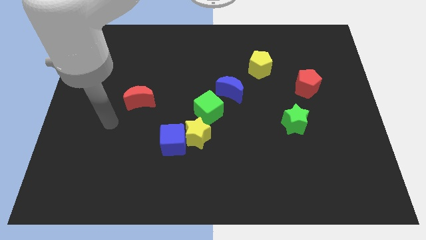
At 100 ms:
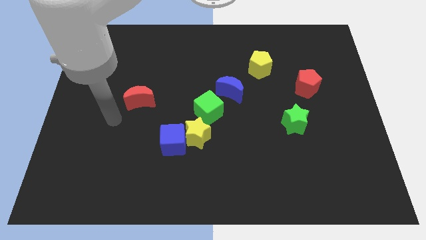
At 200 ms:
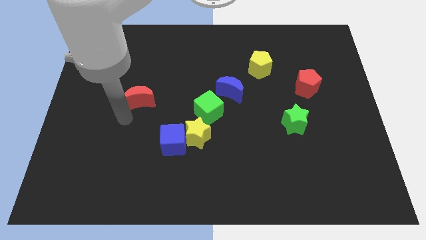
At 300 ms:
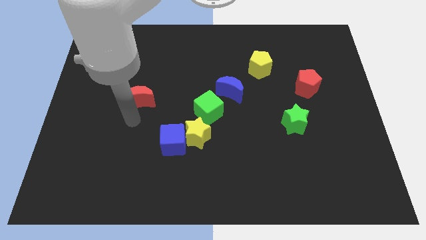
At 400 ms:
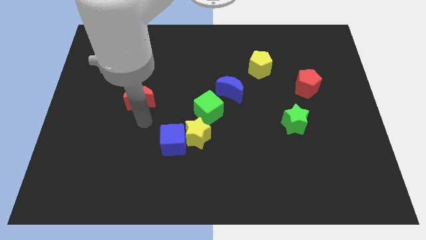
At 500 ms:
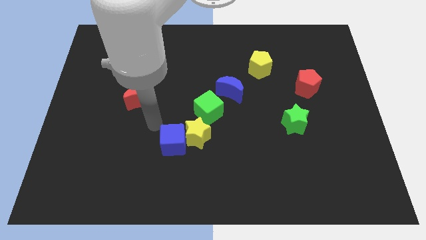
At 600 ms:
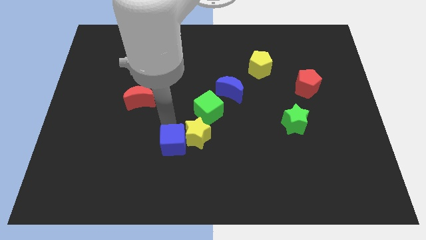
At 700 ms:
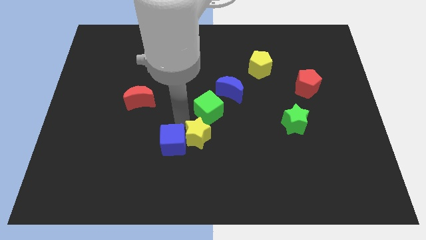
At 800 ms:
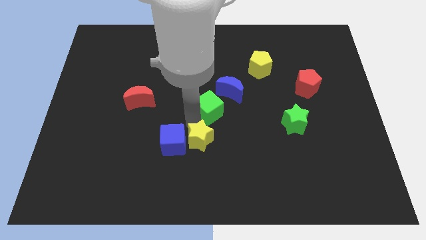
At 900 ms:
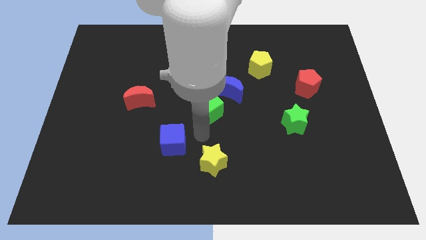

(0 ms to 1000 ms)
move the blue cube away from the yellow star

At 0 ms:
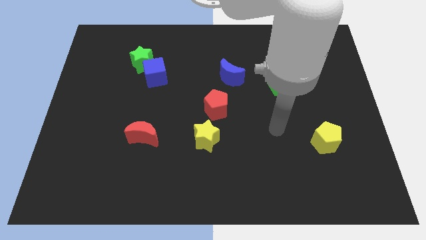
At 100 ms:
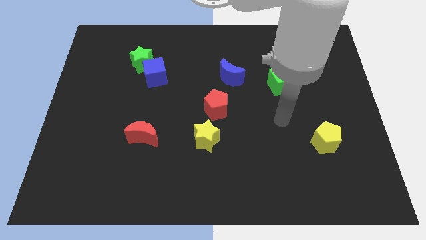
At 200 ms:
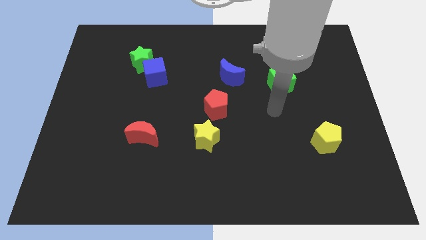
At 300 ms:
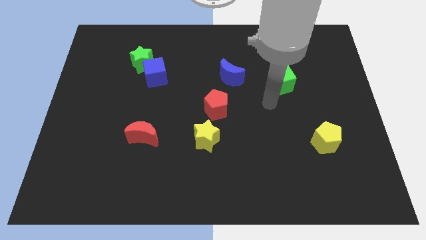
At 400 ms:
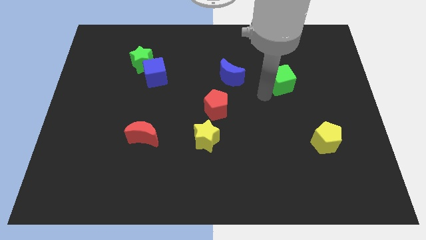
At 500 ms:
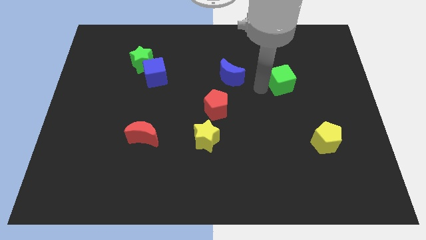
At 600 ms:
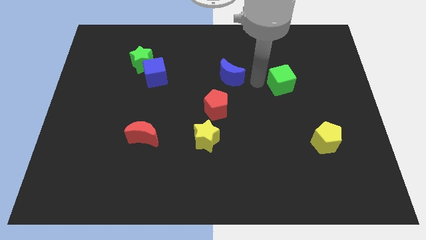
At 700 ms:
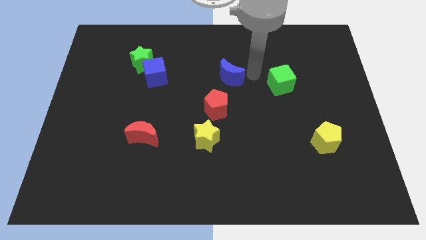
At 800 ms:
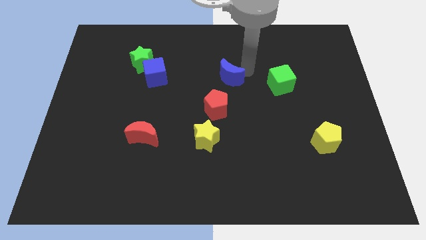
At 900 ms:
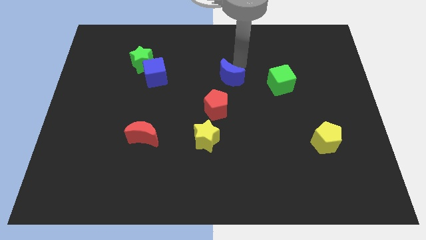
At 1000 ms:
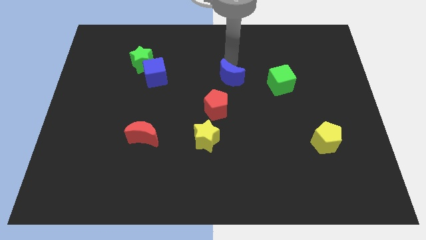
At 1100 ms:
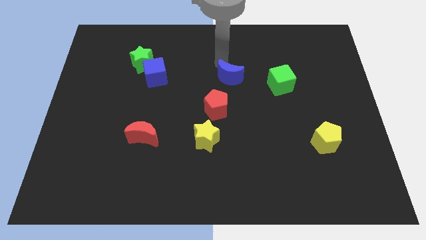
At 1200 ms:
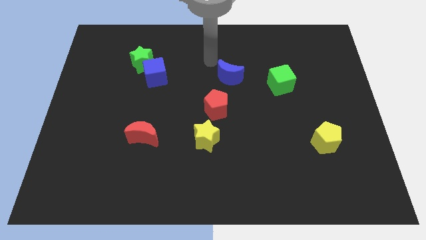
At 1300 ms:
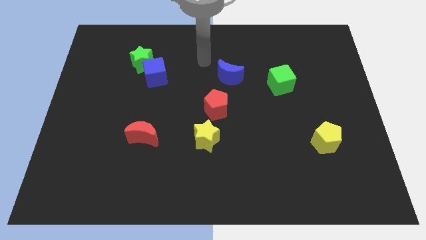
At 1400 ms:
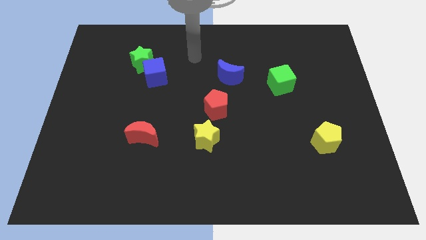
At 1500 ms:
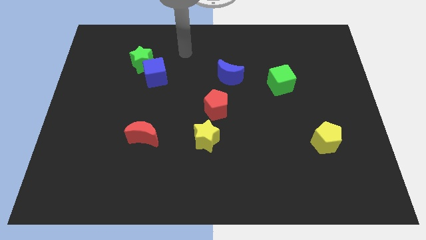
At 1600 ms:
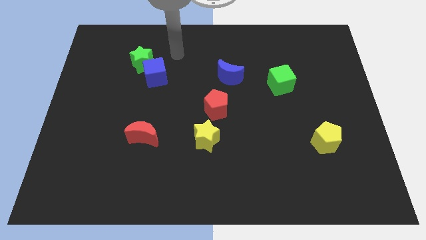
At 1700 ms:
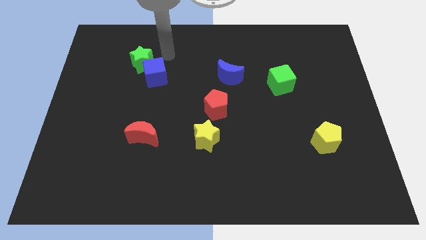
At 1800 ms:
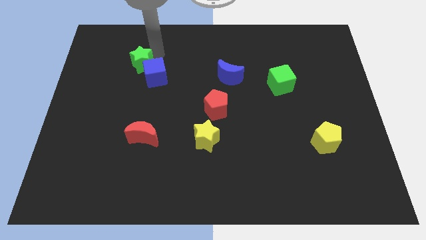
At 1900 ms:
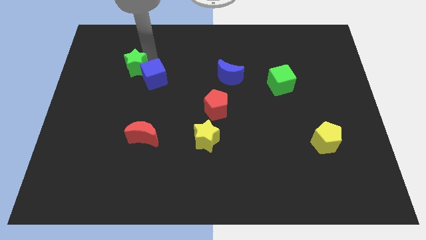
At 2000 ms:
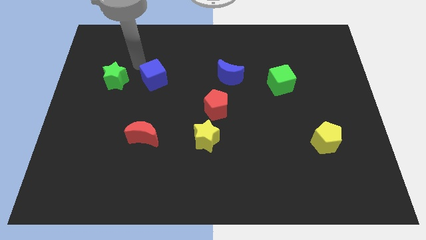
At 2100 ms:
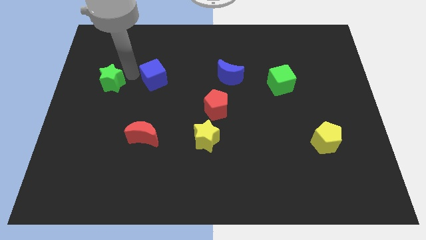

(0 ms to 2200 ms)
pull the blue cube apart from the green star

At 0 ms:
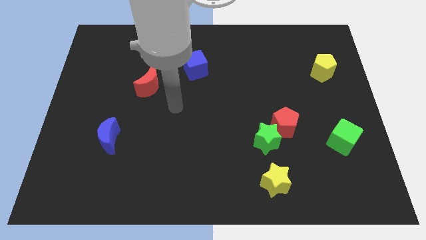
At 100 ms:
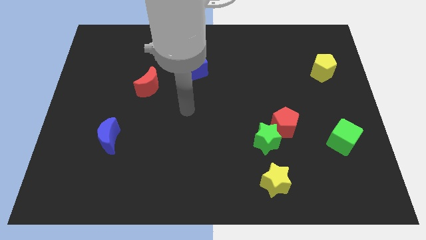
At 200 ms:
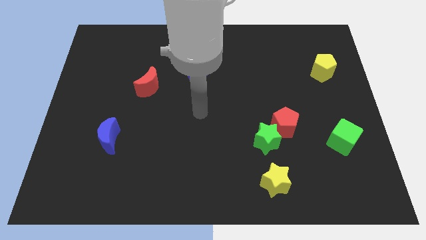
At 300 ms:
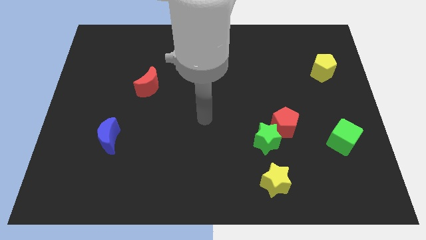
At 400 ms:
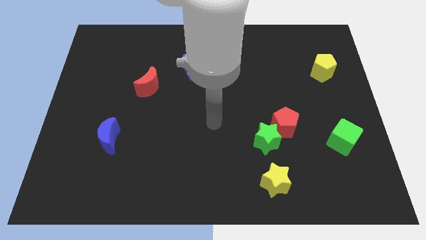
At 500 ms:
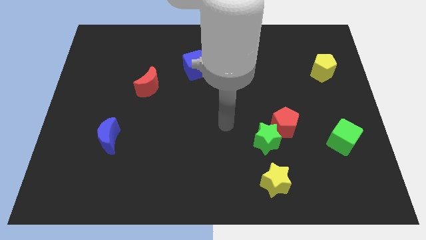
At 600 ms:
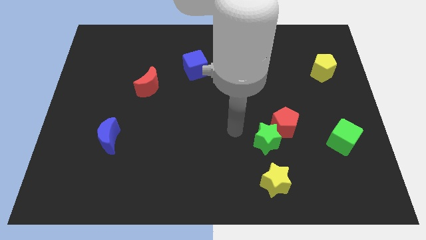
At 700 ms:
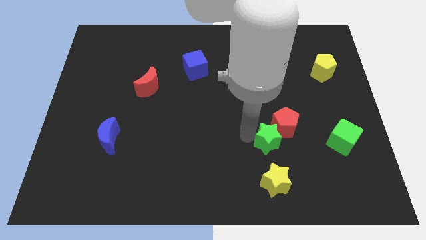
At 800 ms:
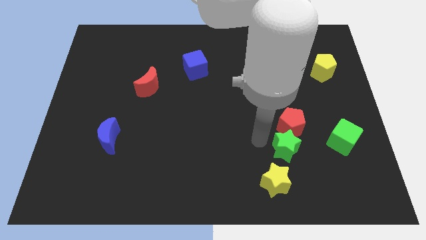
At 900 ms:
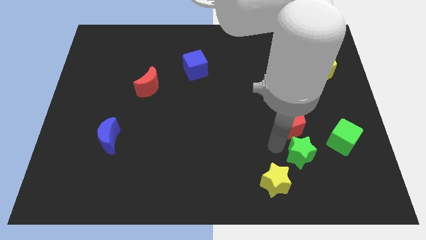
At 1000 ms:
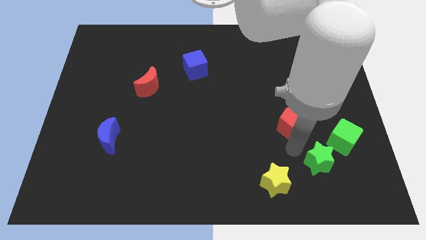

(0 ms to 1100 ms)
pull the red pentagon apart from the green star

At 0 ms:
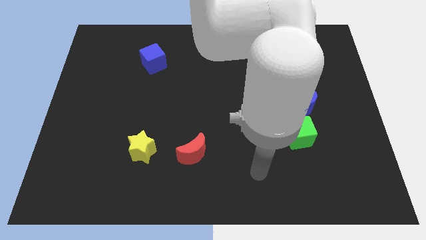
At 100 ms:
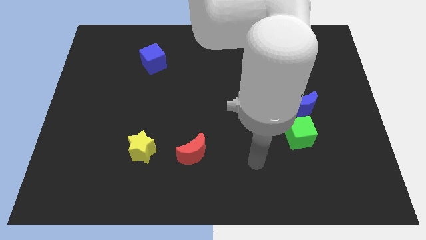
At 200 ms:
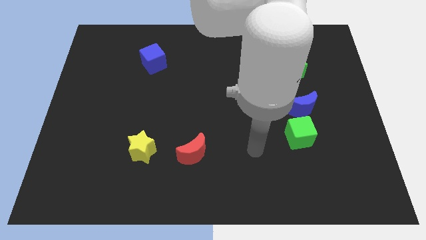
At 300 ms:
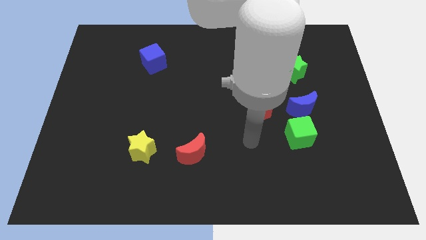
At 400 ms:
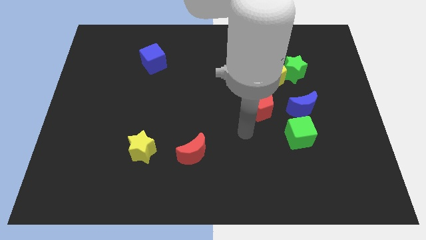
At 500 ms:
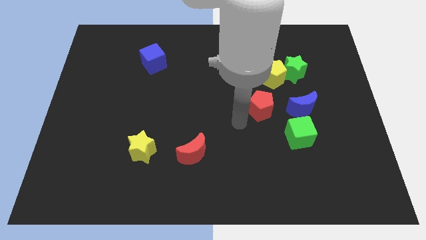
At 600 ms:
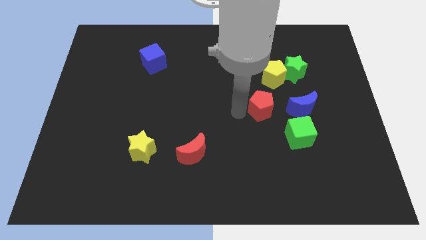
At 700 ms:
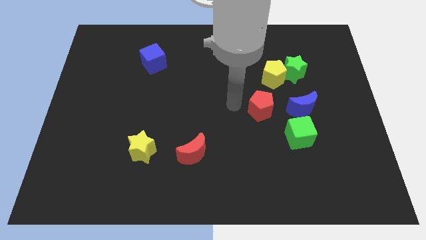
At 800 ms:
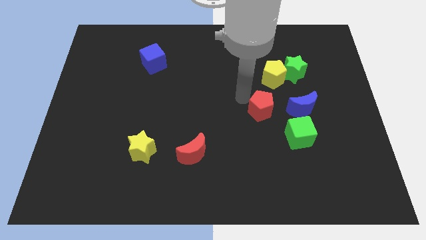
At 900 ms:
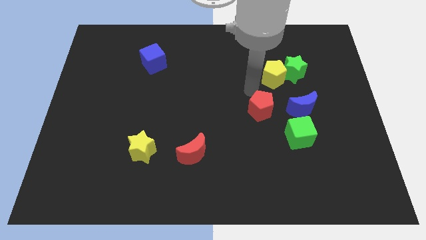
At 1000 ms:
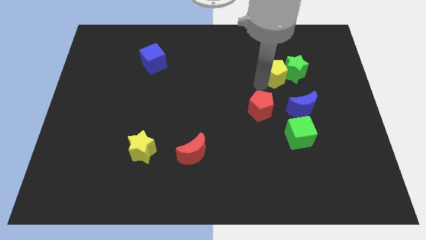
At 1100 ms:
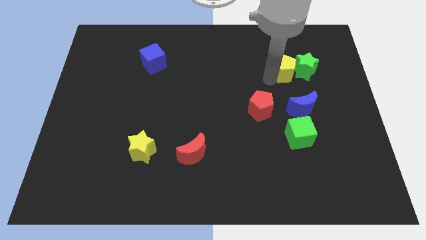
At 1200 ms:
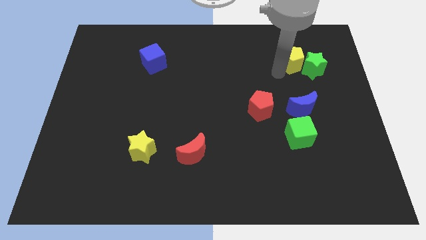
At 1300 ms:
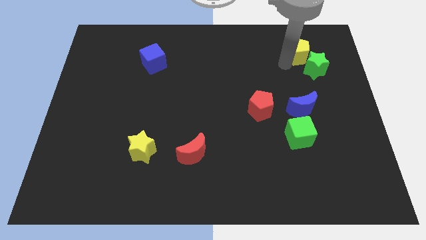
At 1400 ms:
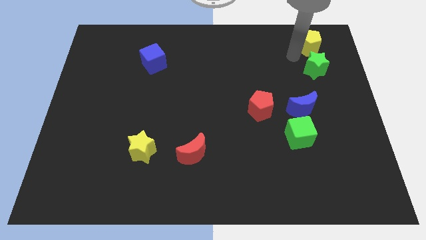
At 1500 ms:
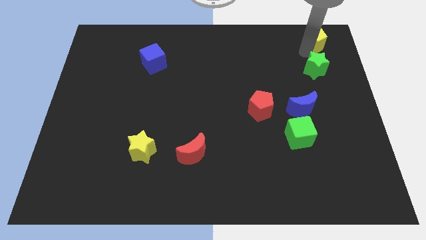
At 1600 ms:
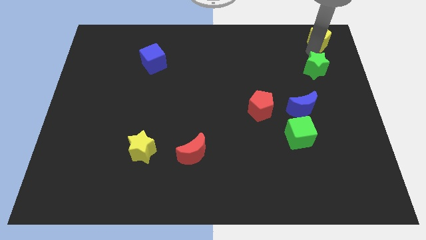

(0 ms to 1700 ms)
separate the green star from the yellow pentagon

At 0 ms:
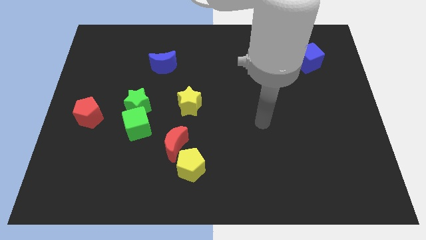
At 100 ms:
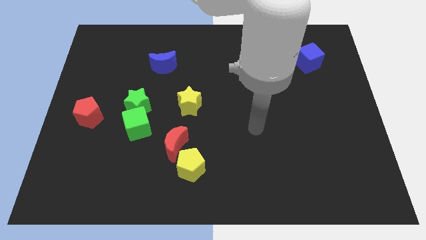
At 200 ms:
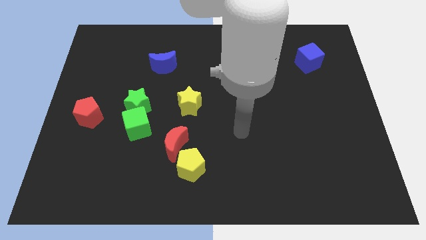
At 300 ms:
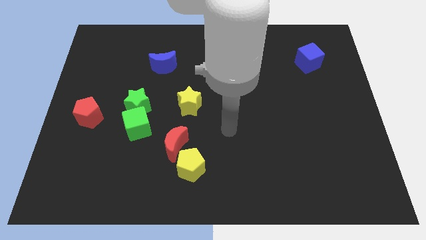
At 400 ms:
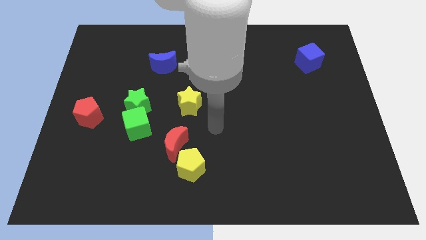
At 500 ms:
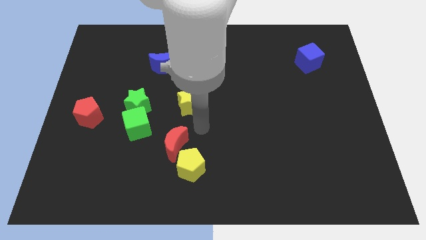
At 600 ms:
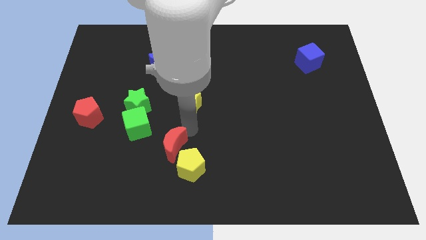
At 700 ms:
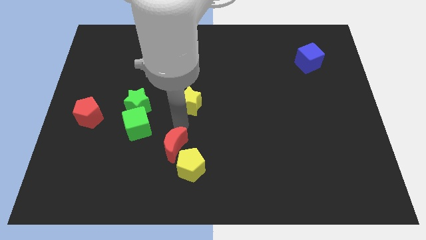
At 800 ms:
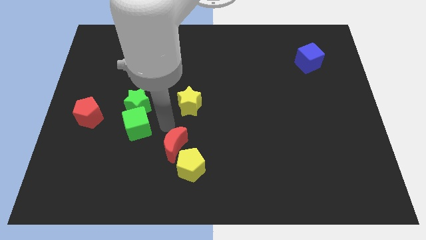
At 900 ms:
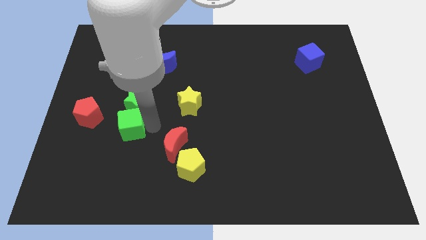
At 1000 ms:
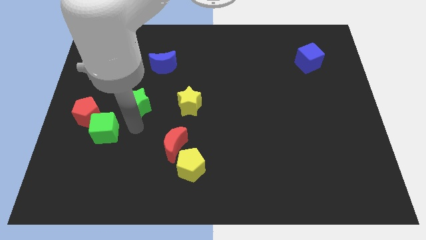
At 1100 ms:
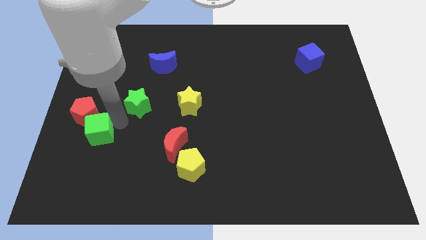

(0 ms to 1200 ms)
separate the green star from the green cube

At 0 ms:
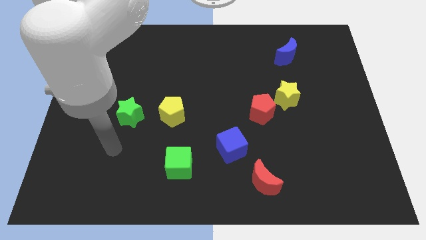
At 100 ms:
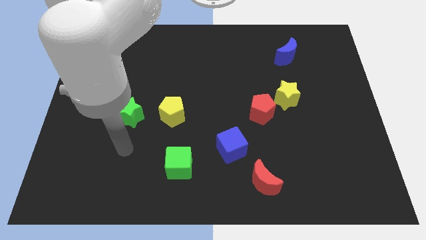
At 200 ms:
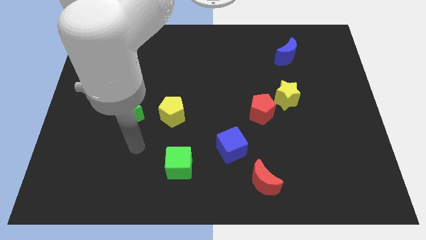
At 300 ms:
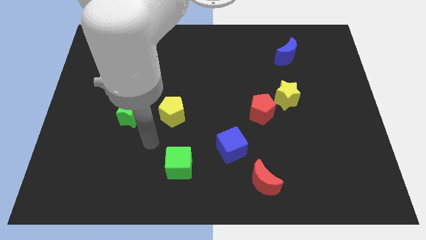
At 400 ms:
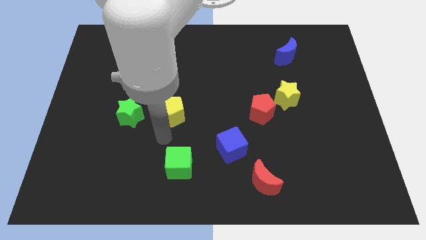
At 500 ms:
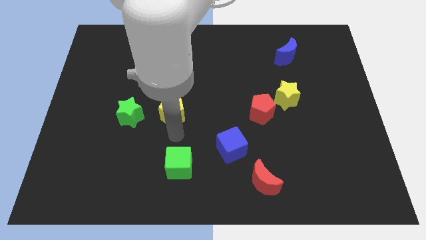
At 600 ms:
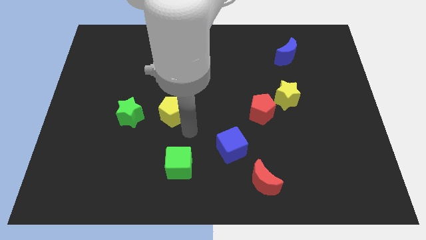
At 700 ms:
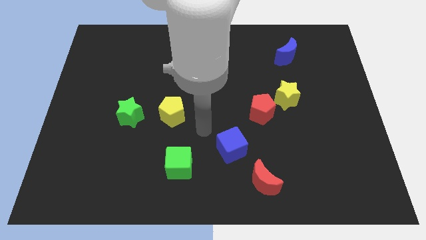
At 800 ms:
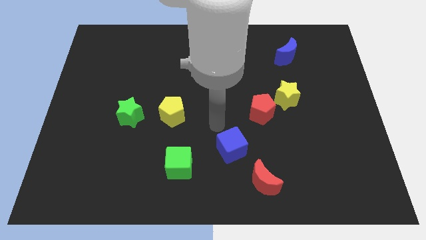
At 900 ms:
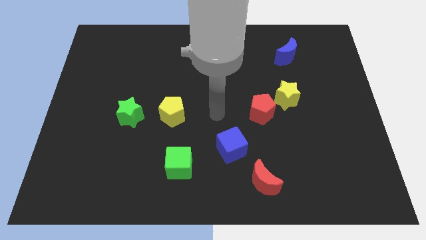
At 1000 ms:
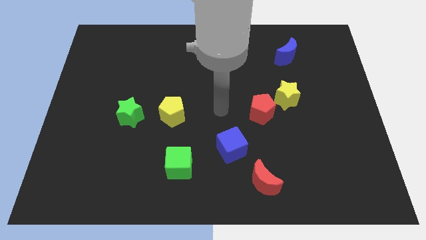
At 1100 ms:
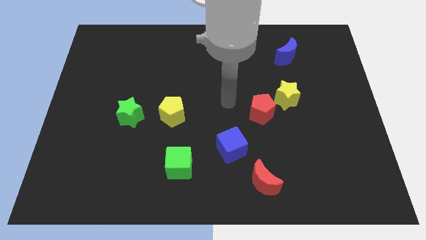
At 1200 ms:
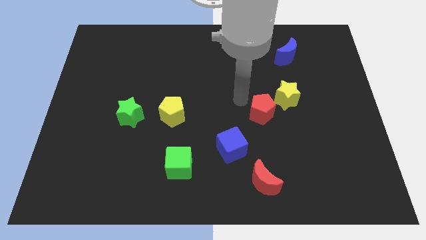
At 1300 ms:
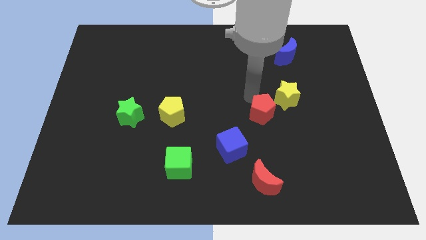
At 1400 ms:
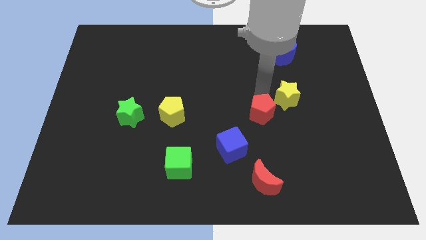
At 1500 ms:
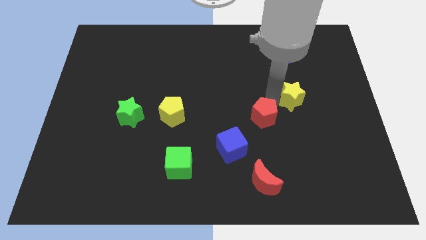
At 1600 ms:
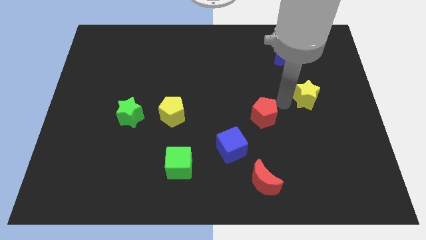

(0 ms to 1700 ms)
move the red pentagon away from the yellow star

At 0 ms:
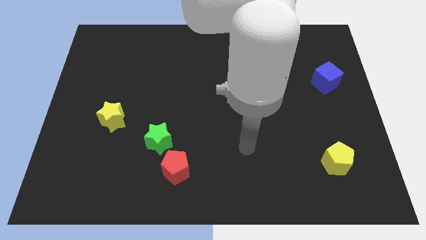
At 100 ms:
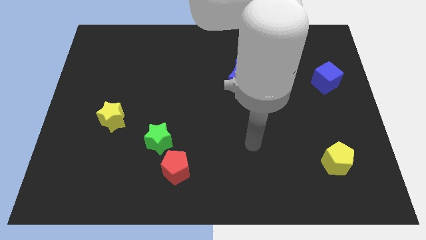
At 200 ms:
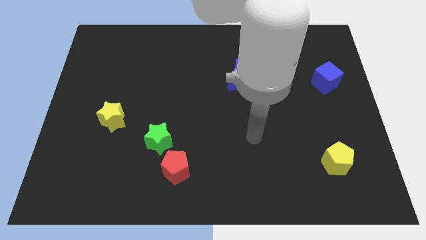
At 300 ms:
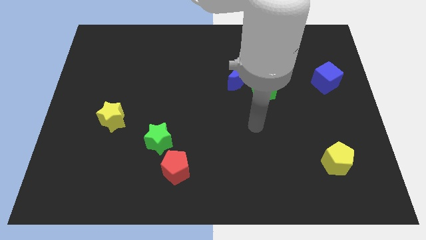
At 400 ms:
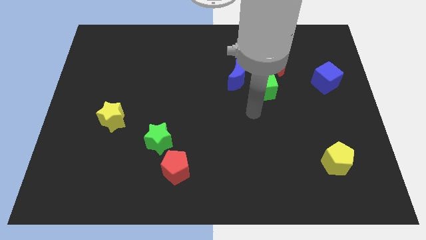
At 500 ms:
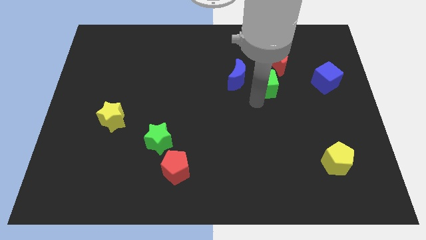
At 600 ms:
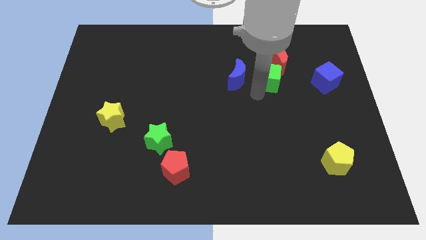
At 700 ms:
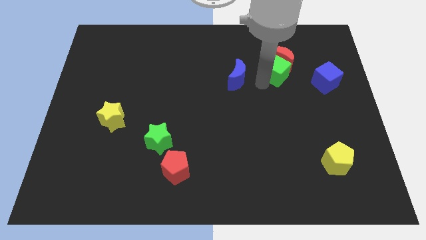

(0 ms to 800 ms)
move the blue moon away from the green cube
